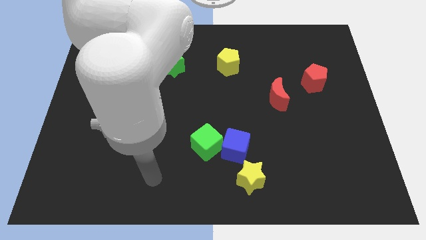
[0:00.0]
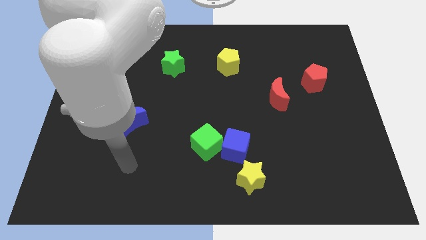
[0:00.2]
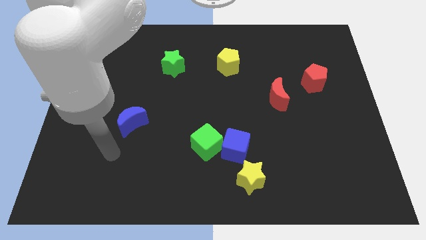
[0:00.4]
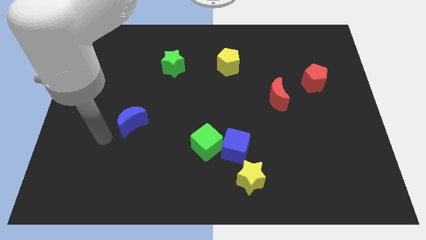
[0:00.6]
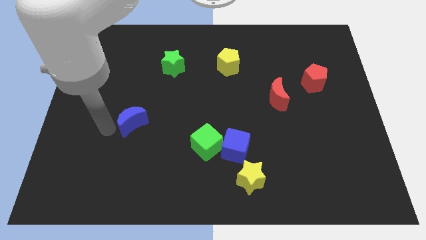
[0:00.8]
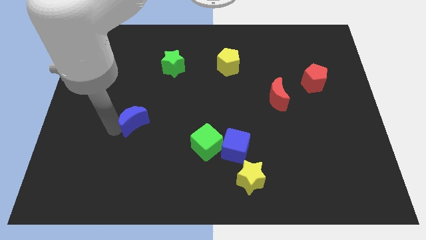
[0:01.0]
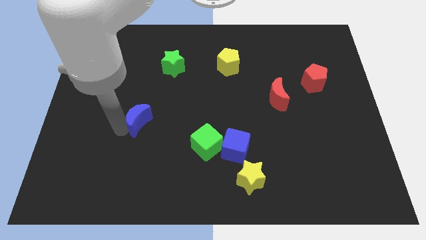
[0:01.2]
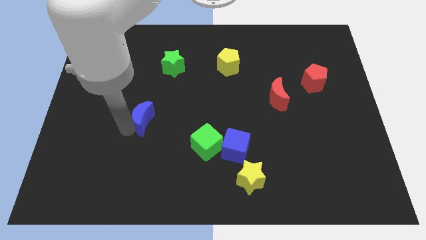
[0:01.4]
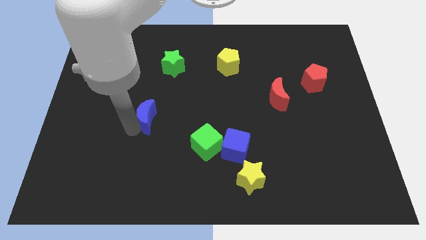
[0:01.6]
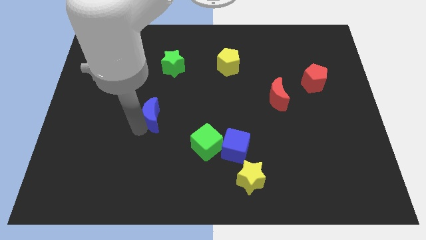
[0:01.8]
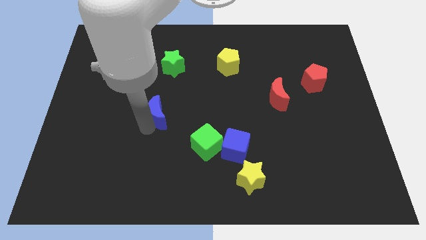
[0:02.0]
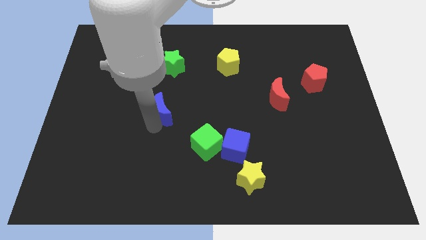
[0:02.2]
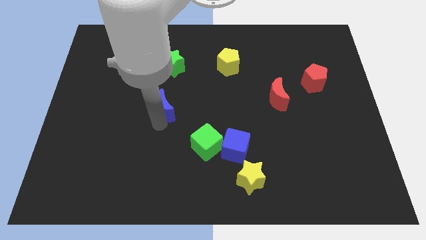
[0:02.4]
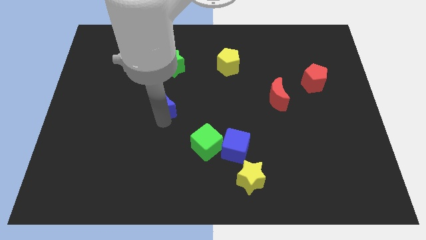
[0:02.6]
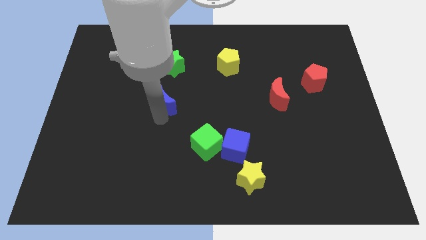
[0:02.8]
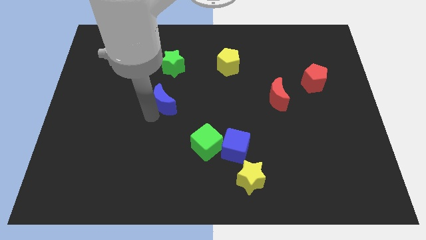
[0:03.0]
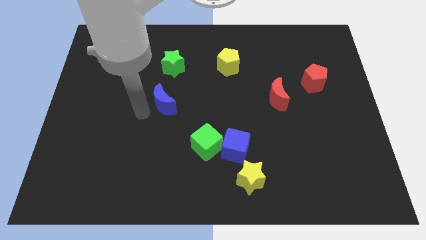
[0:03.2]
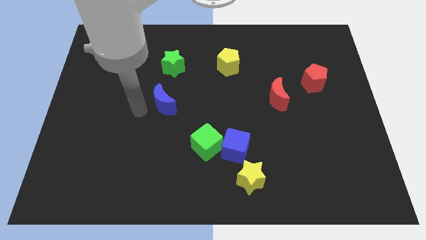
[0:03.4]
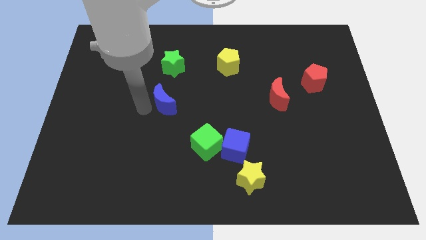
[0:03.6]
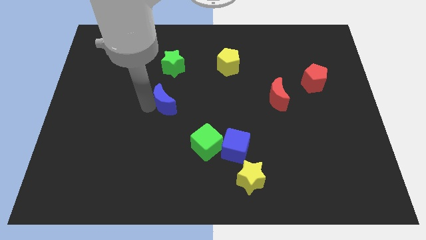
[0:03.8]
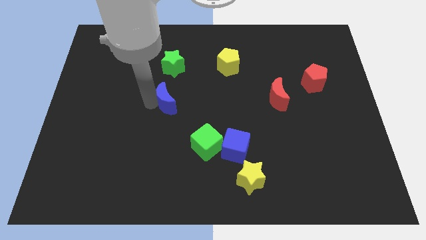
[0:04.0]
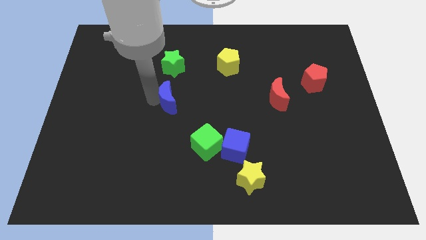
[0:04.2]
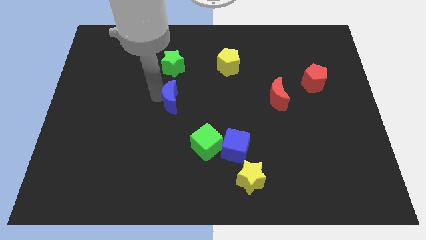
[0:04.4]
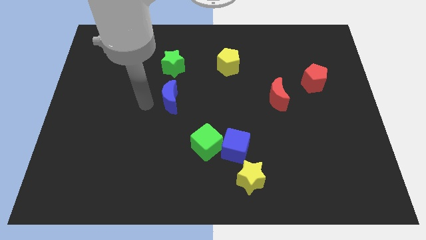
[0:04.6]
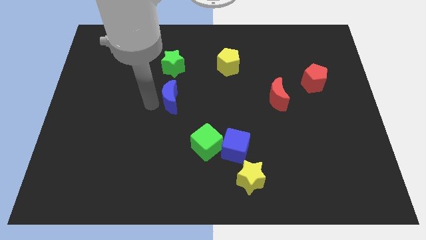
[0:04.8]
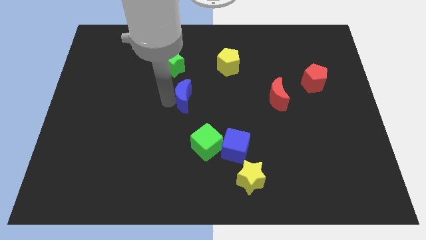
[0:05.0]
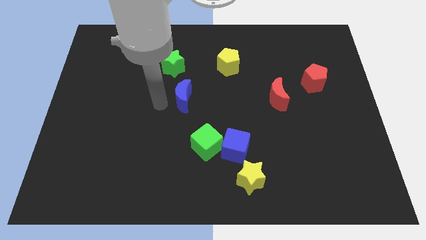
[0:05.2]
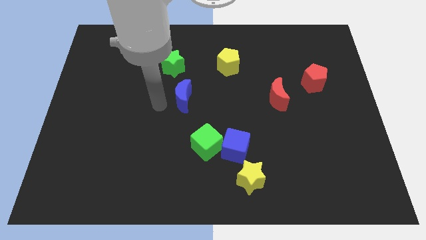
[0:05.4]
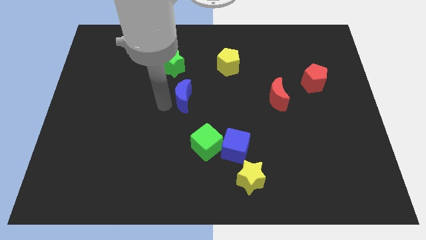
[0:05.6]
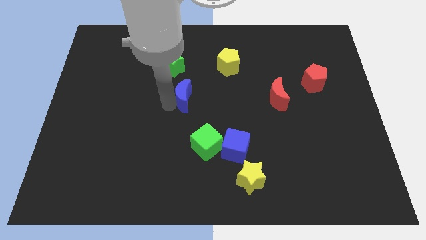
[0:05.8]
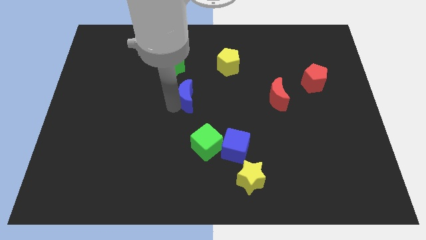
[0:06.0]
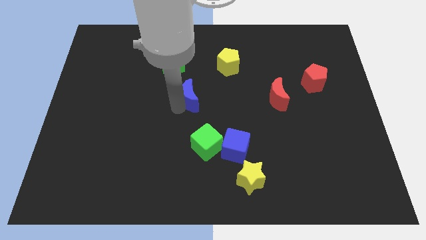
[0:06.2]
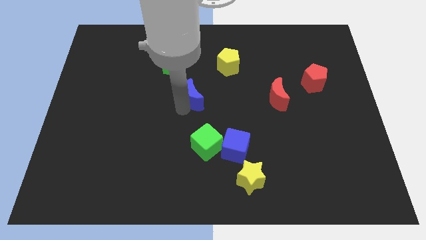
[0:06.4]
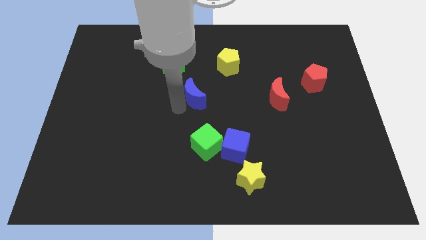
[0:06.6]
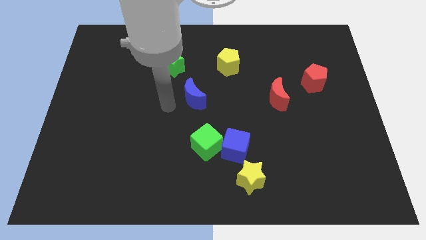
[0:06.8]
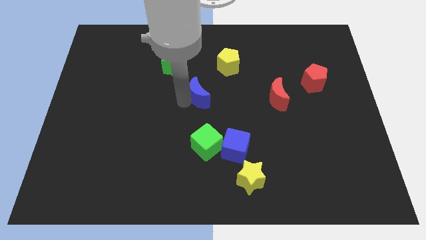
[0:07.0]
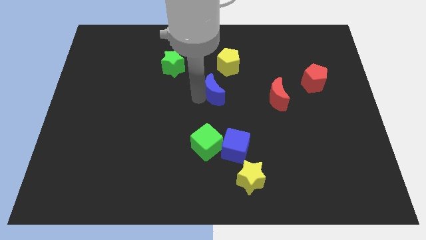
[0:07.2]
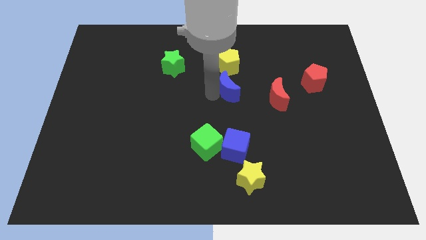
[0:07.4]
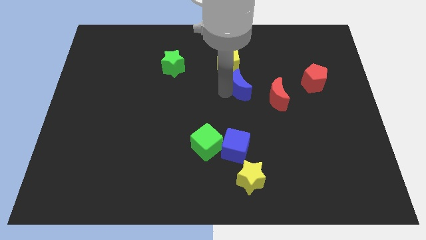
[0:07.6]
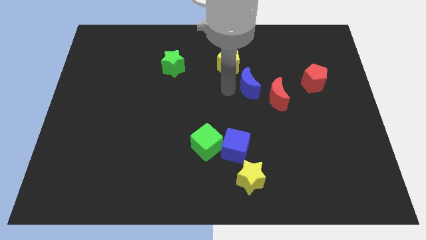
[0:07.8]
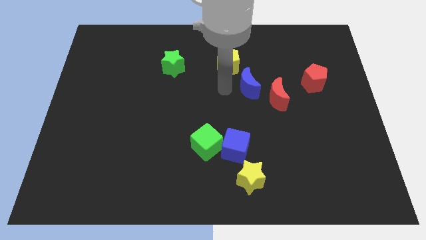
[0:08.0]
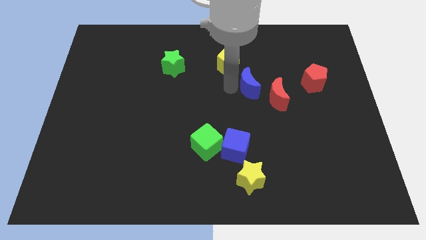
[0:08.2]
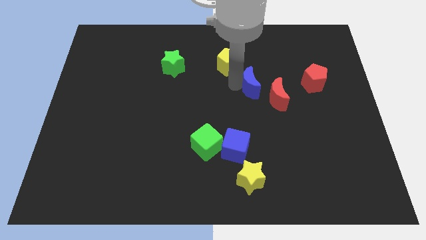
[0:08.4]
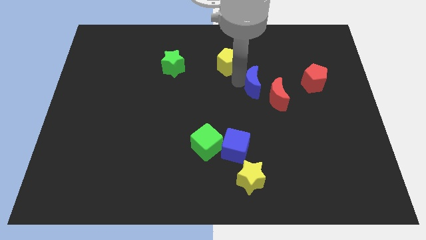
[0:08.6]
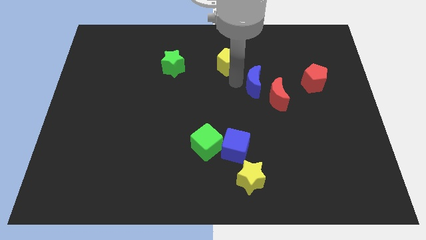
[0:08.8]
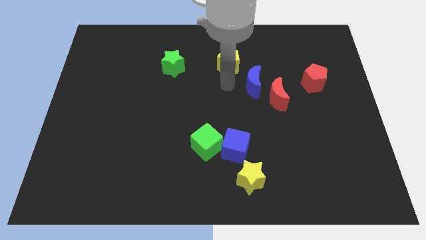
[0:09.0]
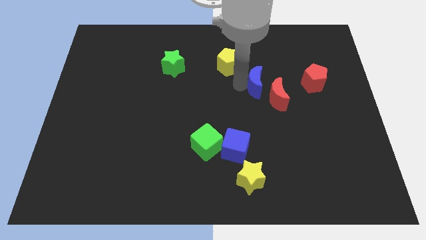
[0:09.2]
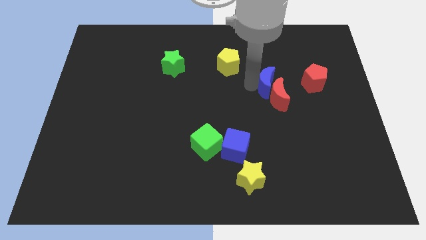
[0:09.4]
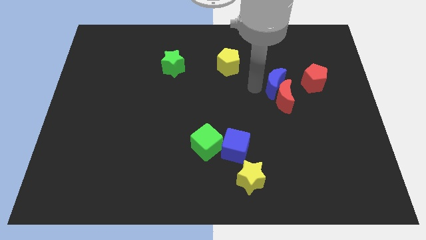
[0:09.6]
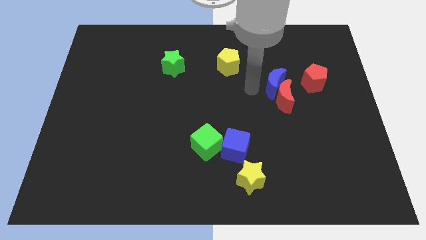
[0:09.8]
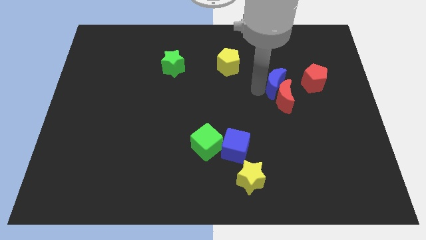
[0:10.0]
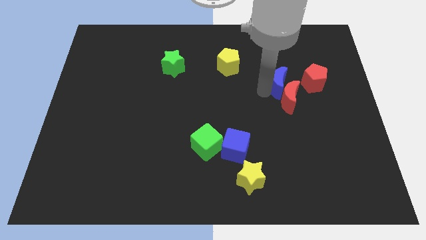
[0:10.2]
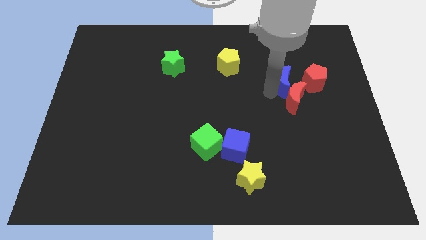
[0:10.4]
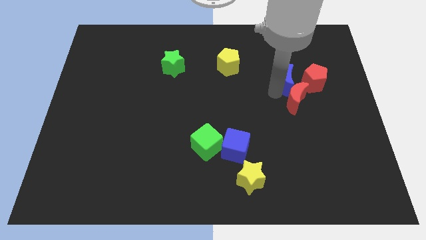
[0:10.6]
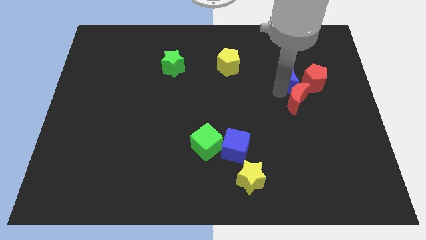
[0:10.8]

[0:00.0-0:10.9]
slide the blue moon towards the red pentagon

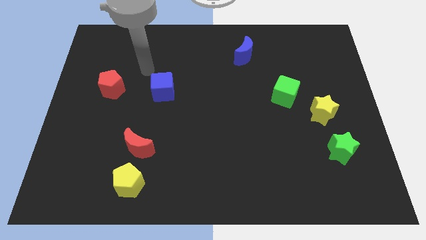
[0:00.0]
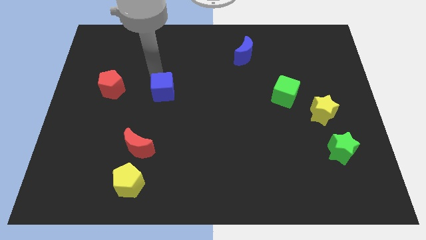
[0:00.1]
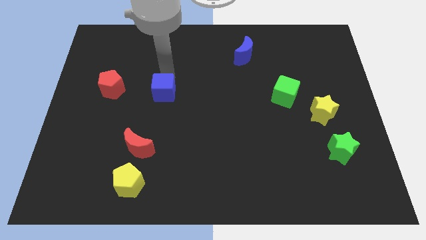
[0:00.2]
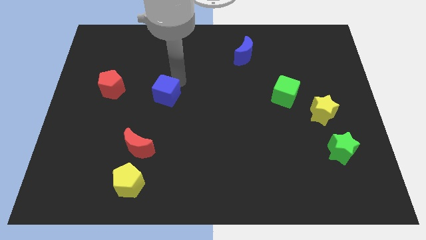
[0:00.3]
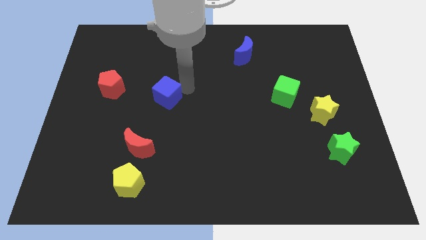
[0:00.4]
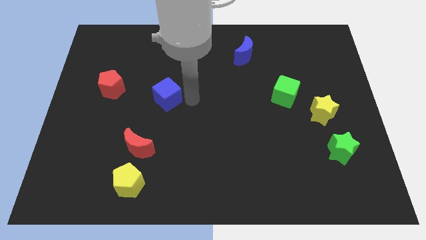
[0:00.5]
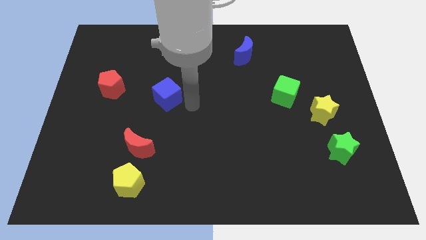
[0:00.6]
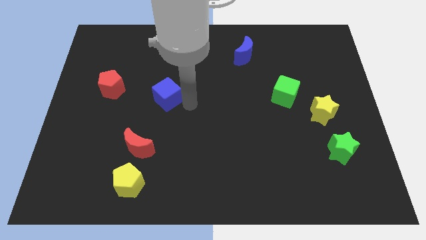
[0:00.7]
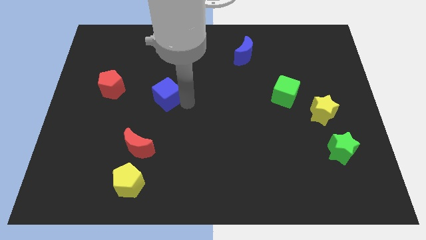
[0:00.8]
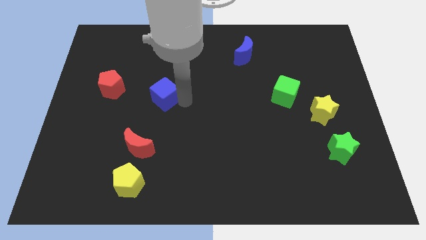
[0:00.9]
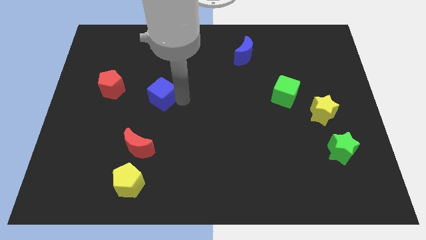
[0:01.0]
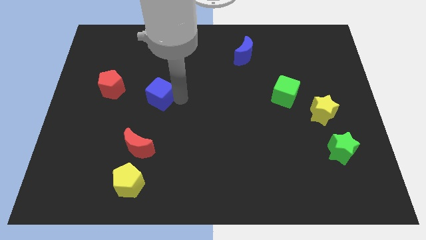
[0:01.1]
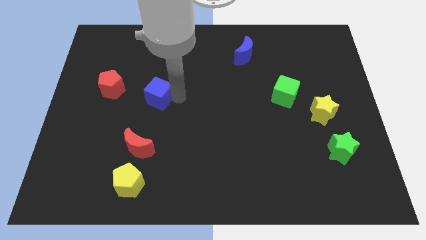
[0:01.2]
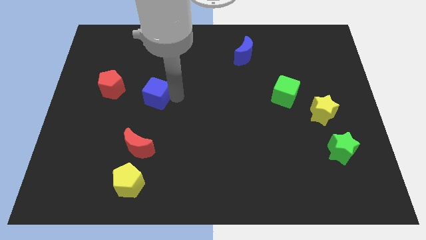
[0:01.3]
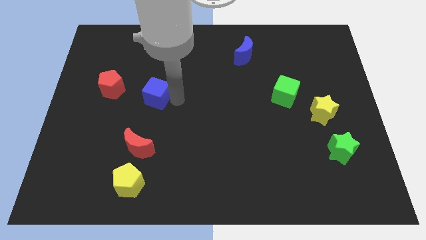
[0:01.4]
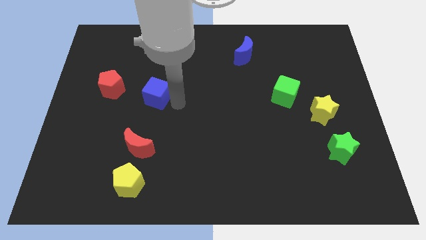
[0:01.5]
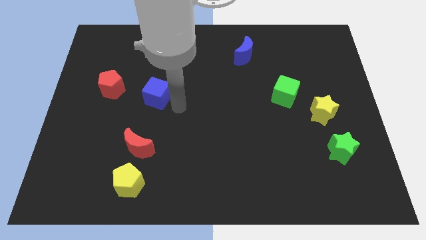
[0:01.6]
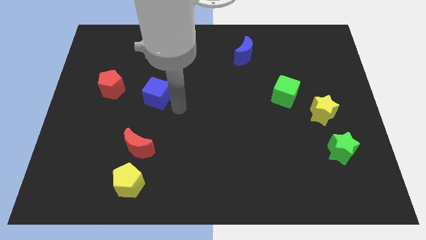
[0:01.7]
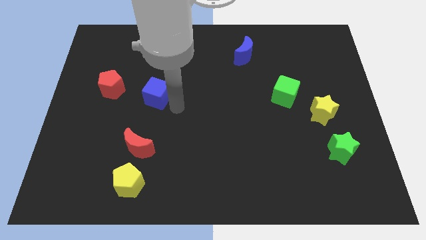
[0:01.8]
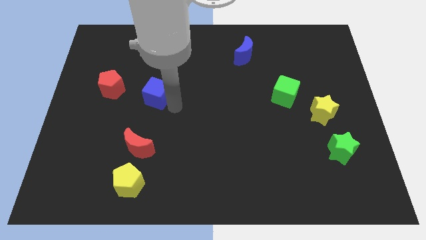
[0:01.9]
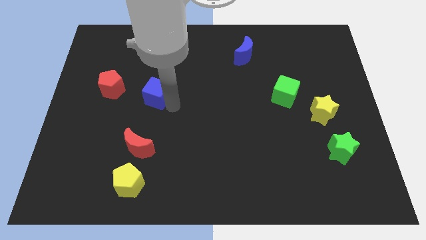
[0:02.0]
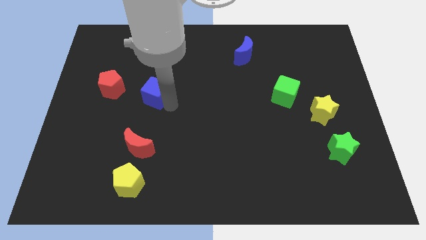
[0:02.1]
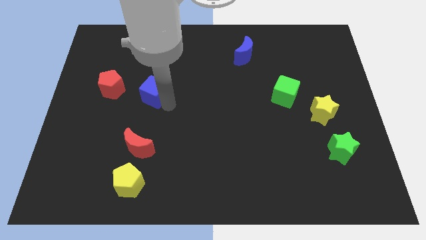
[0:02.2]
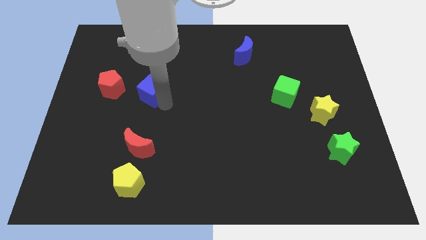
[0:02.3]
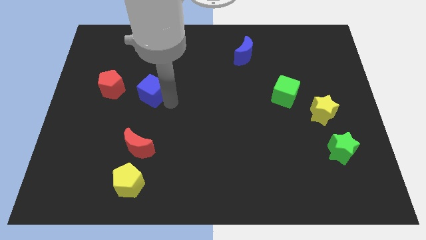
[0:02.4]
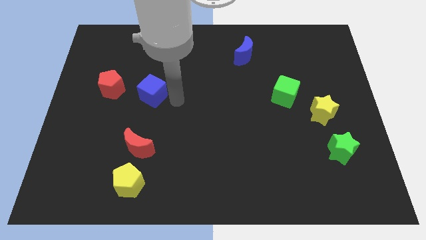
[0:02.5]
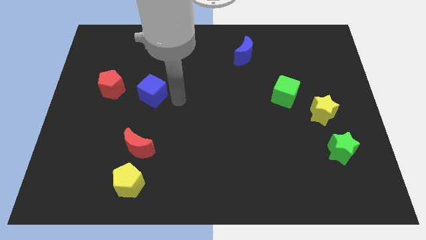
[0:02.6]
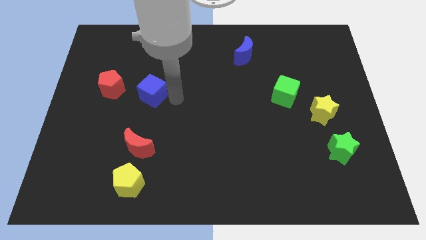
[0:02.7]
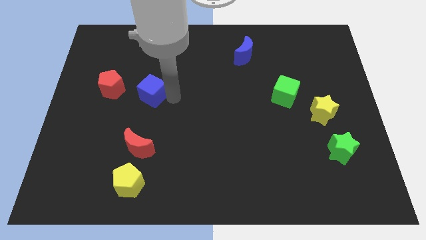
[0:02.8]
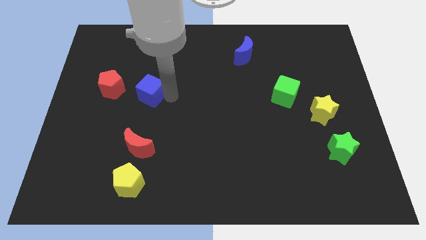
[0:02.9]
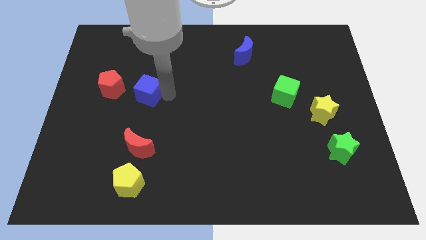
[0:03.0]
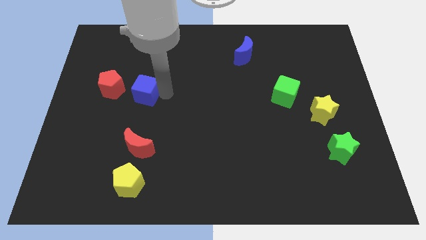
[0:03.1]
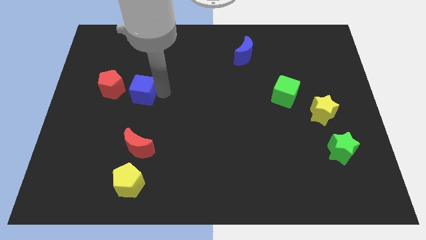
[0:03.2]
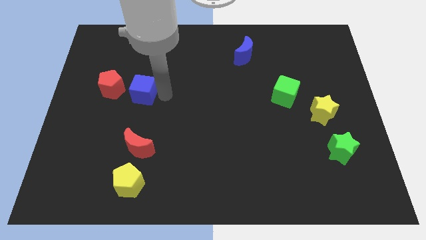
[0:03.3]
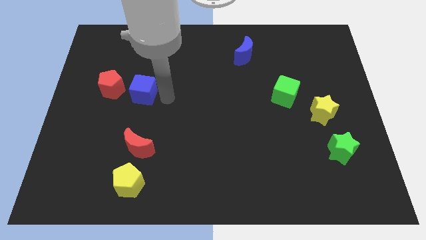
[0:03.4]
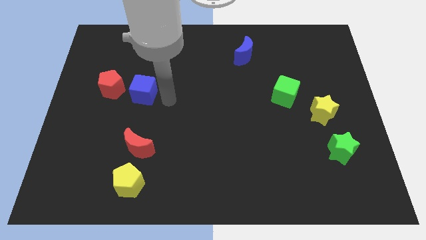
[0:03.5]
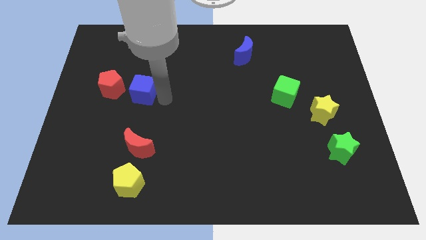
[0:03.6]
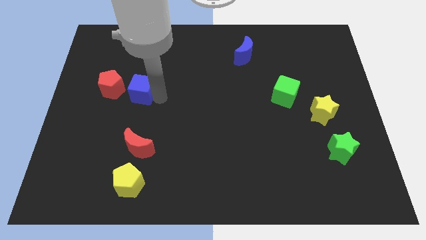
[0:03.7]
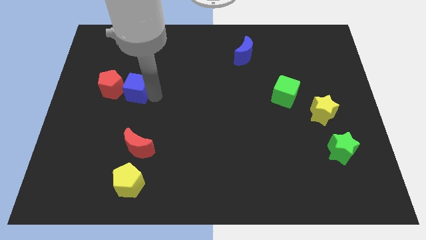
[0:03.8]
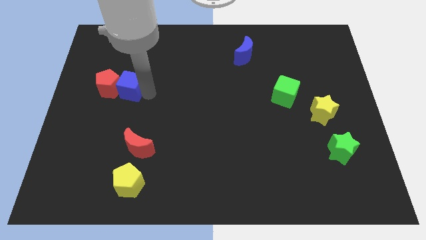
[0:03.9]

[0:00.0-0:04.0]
put the blue cube close to the red pentagon
